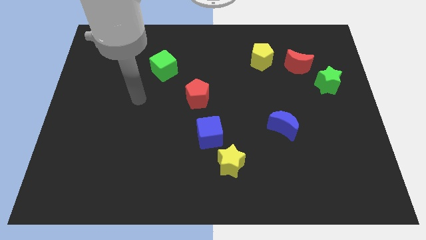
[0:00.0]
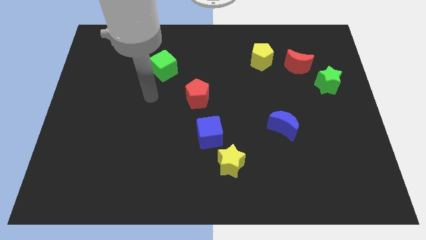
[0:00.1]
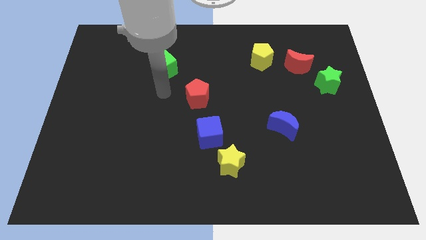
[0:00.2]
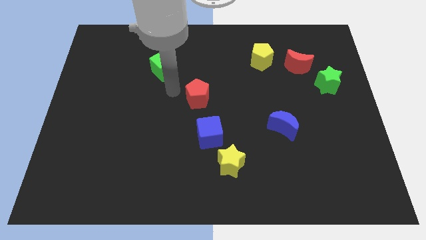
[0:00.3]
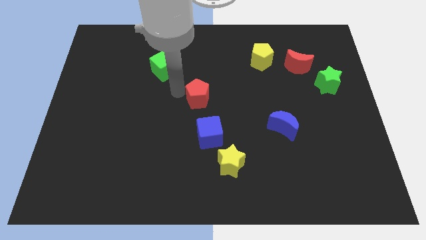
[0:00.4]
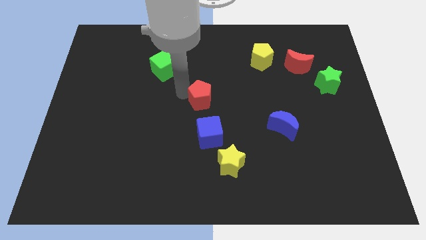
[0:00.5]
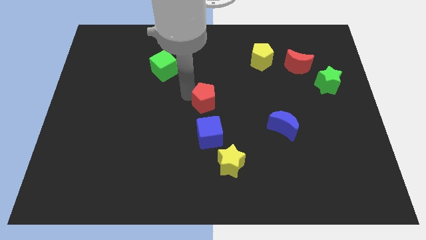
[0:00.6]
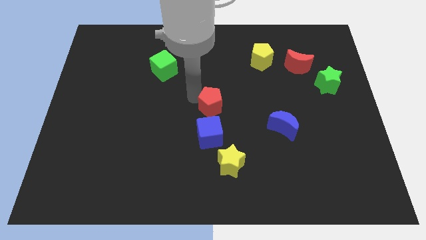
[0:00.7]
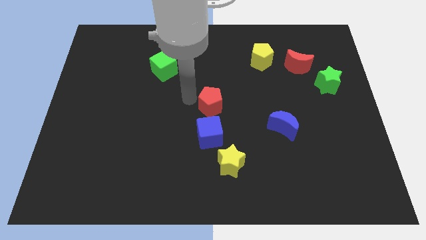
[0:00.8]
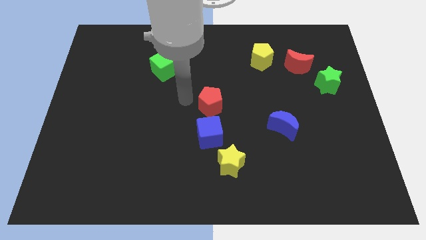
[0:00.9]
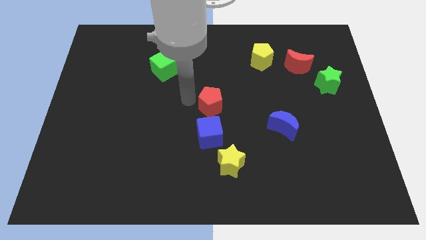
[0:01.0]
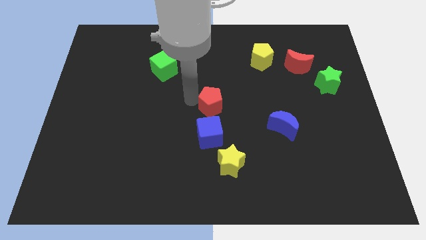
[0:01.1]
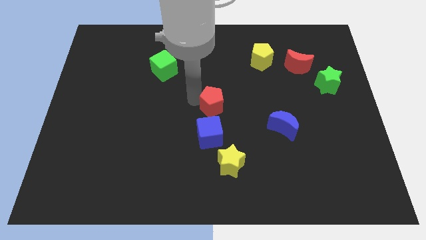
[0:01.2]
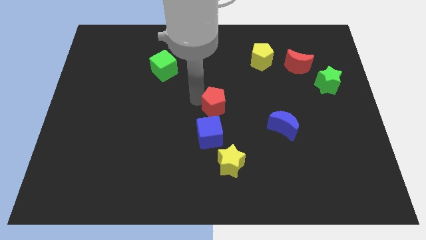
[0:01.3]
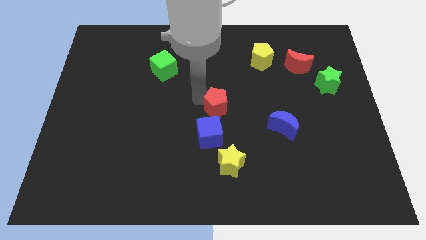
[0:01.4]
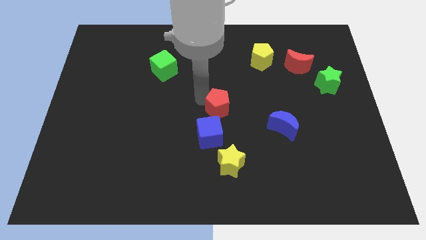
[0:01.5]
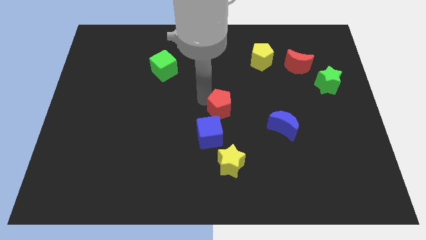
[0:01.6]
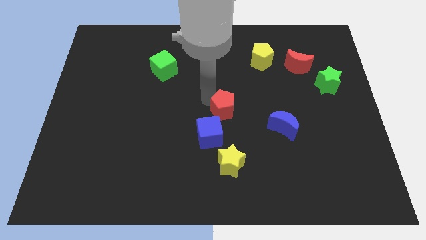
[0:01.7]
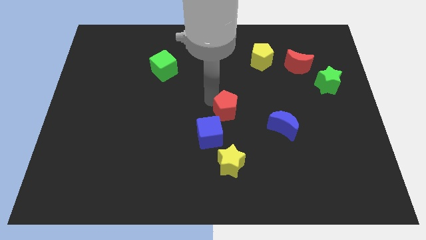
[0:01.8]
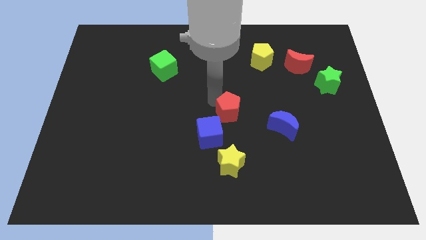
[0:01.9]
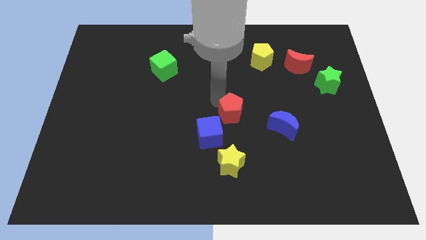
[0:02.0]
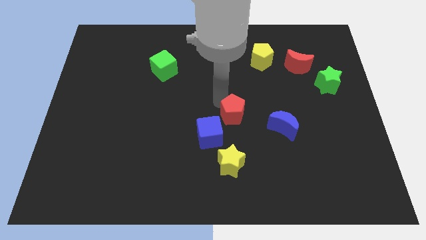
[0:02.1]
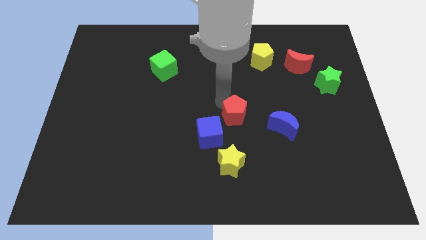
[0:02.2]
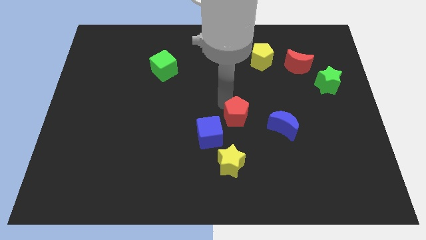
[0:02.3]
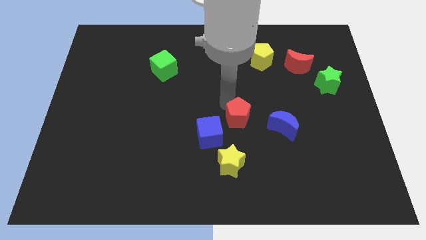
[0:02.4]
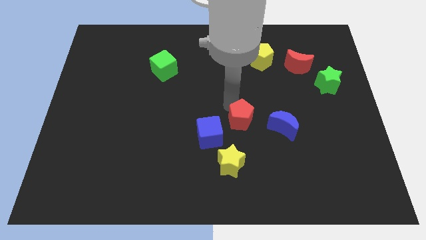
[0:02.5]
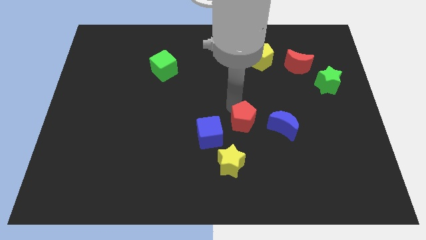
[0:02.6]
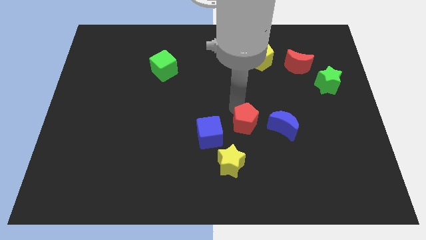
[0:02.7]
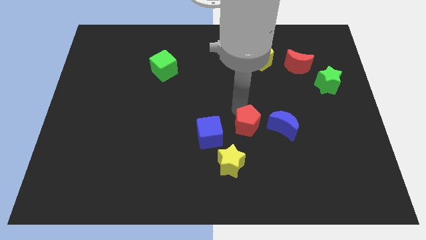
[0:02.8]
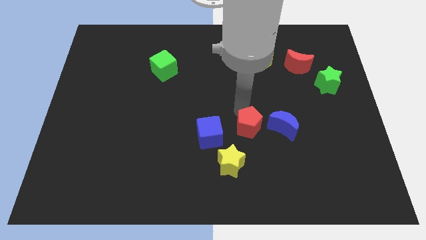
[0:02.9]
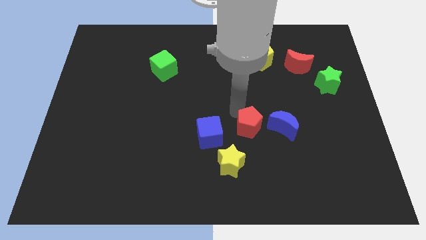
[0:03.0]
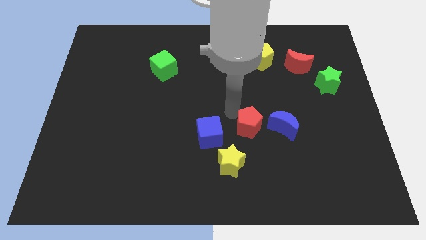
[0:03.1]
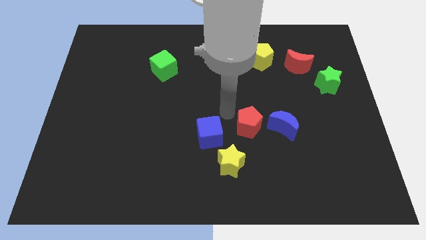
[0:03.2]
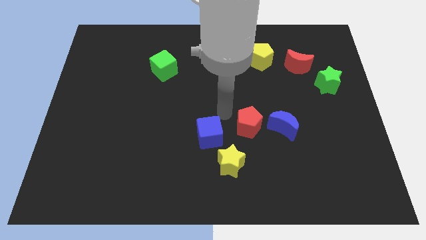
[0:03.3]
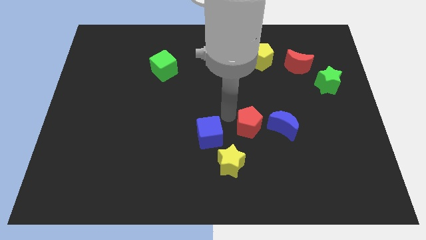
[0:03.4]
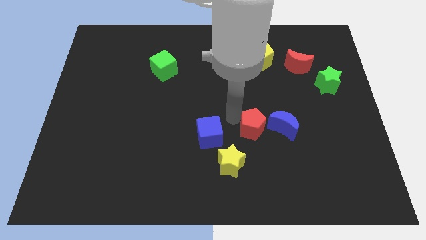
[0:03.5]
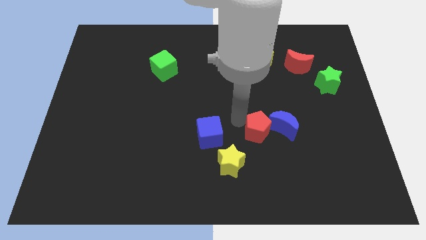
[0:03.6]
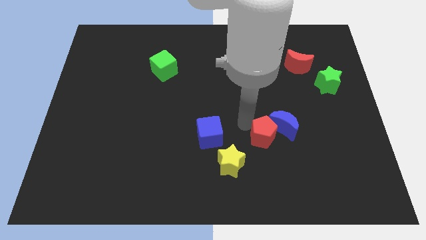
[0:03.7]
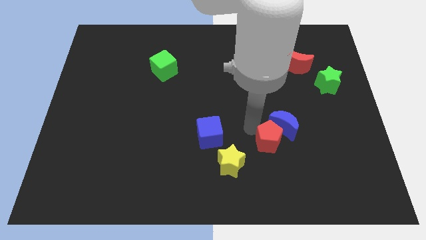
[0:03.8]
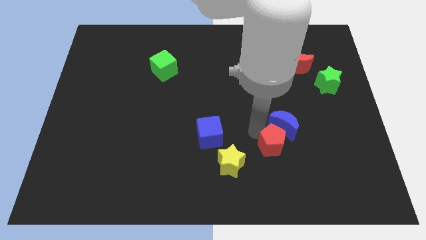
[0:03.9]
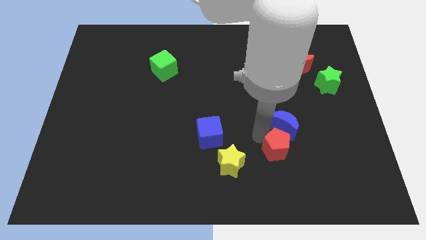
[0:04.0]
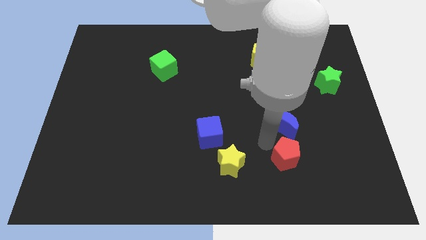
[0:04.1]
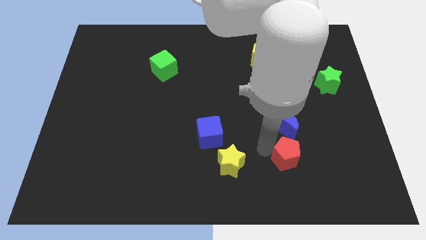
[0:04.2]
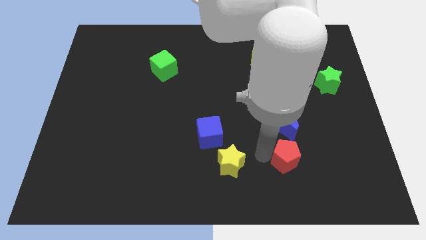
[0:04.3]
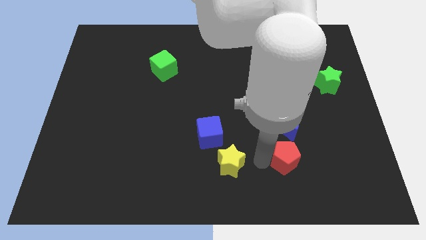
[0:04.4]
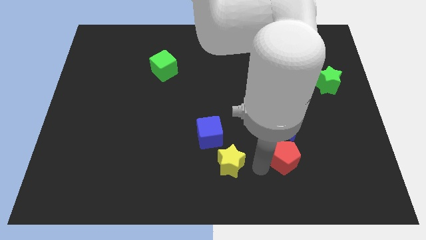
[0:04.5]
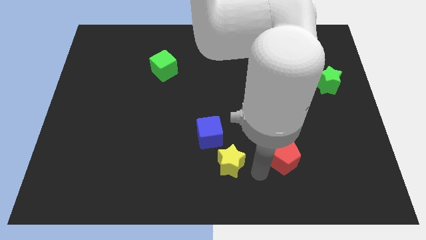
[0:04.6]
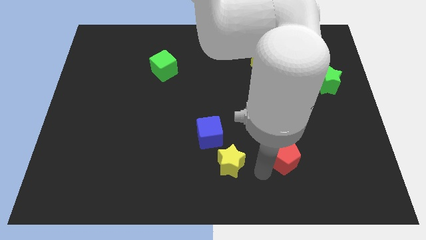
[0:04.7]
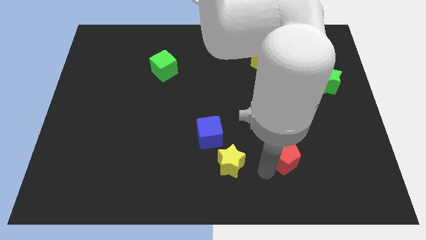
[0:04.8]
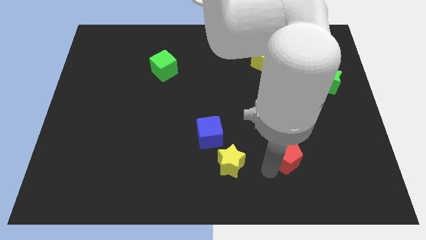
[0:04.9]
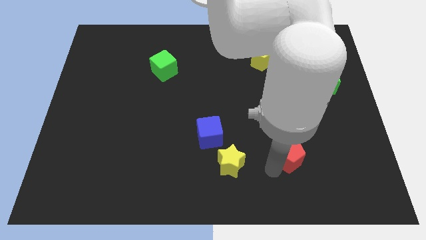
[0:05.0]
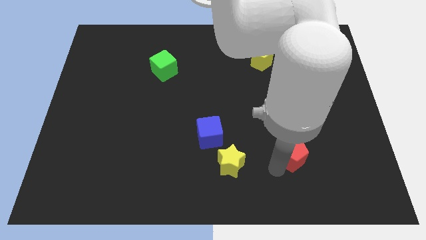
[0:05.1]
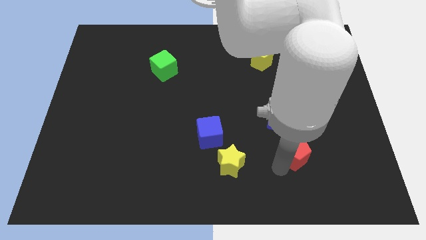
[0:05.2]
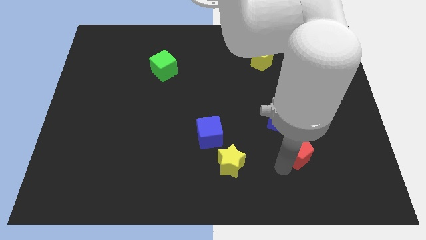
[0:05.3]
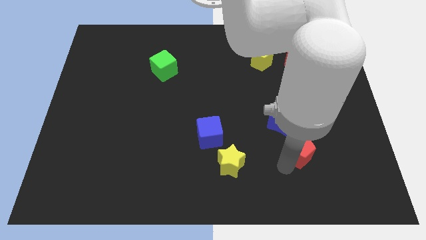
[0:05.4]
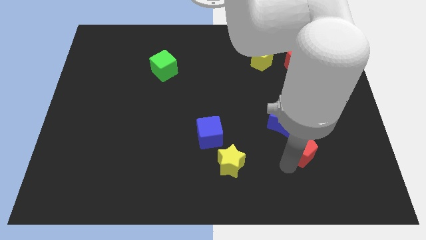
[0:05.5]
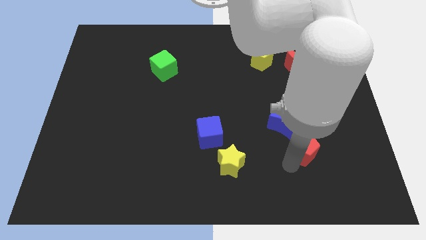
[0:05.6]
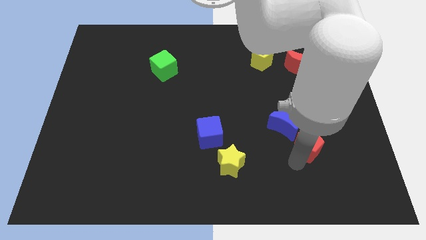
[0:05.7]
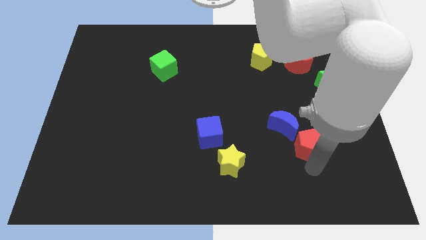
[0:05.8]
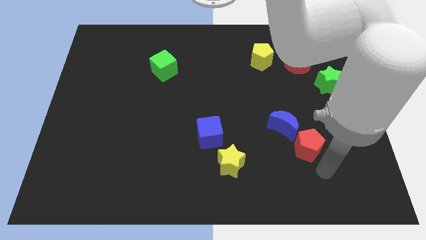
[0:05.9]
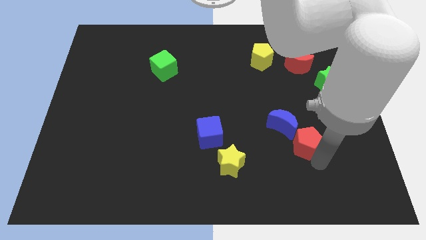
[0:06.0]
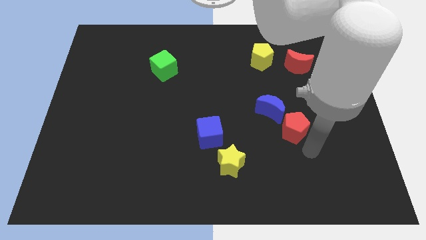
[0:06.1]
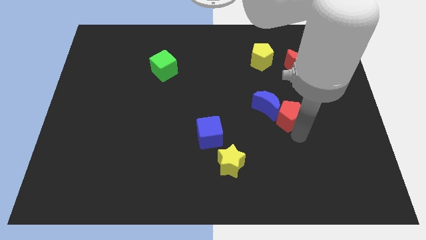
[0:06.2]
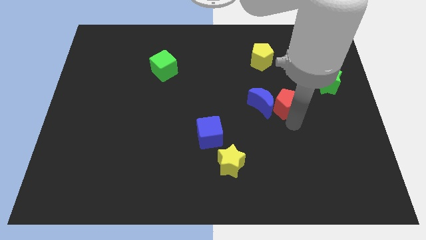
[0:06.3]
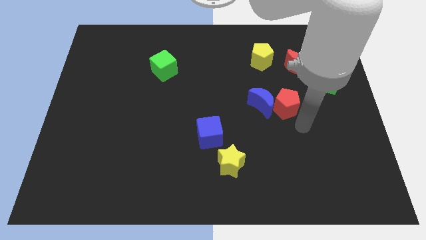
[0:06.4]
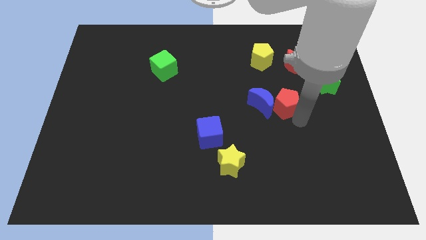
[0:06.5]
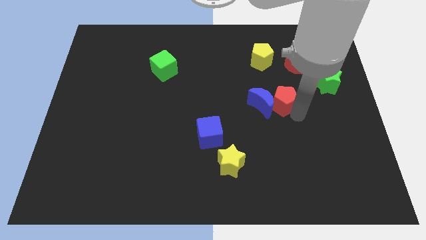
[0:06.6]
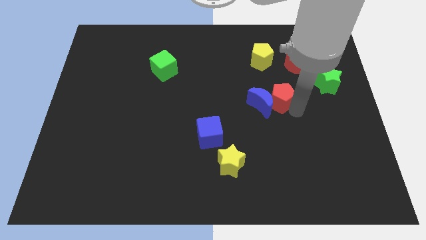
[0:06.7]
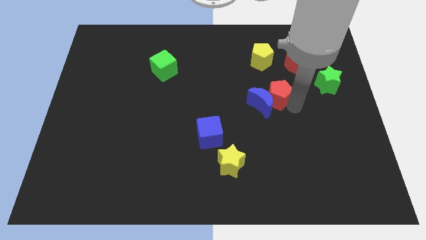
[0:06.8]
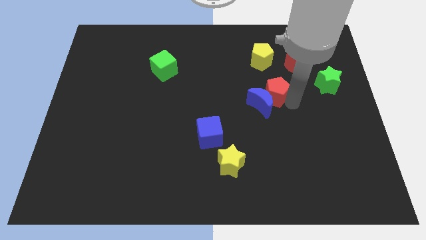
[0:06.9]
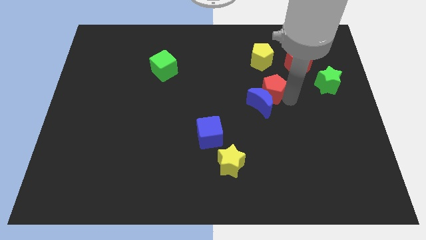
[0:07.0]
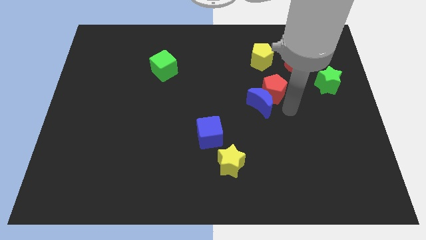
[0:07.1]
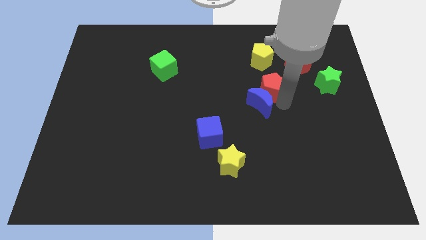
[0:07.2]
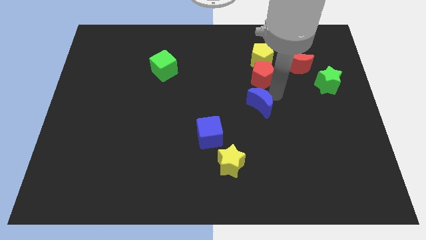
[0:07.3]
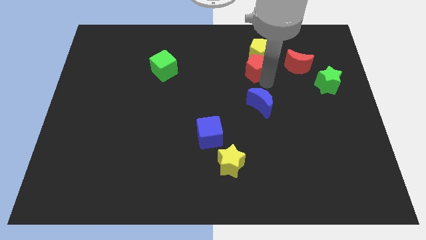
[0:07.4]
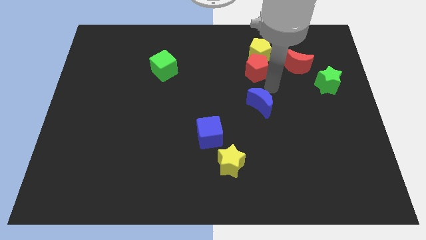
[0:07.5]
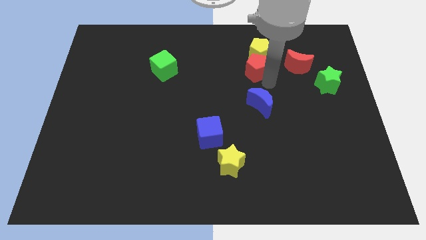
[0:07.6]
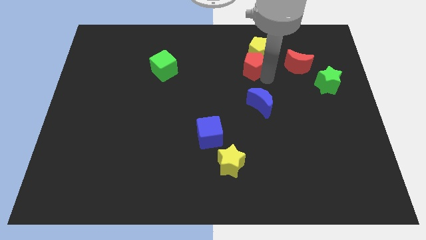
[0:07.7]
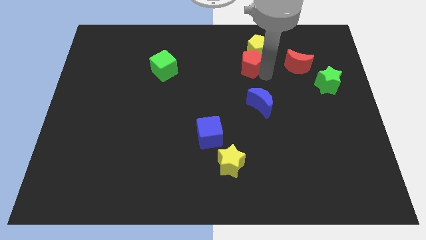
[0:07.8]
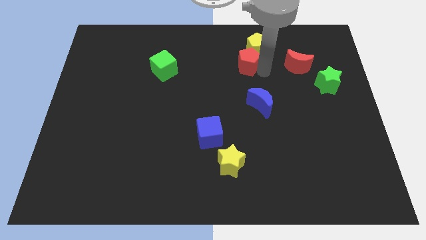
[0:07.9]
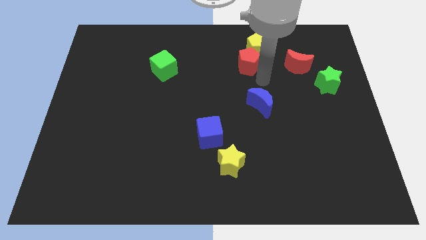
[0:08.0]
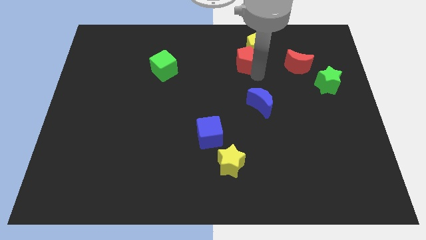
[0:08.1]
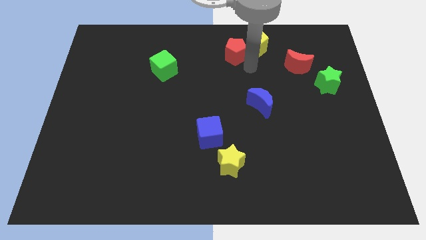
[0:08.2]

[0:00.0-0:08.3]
move the red pentagon to the top
